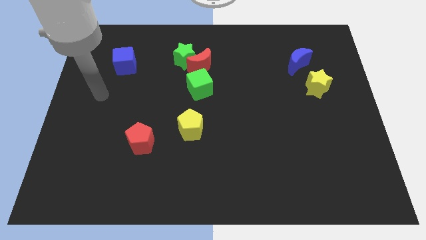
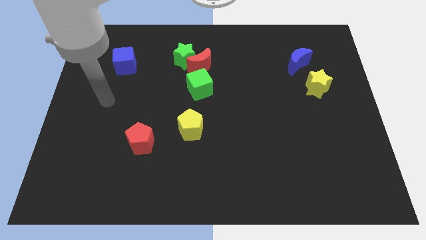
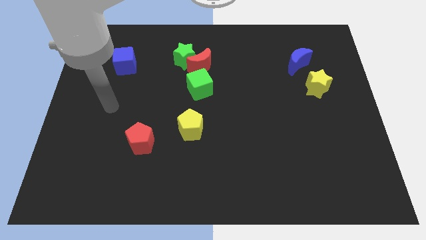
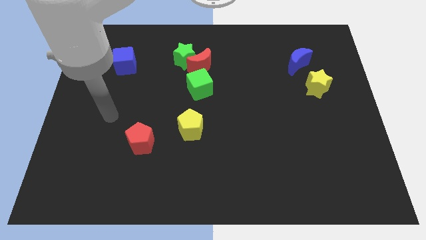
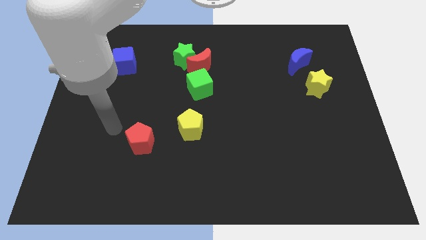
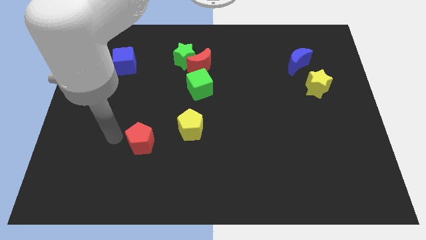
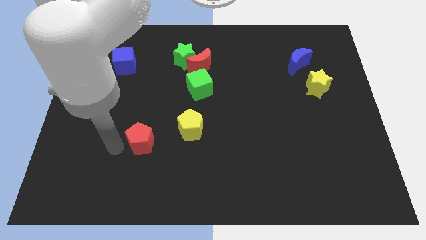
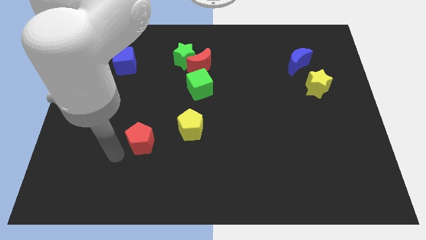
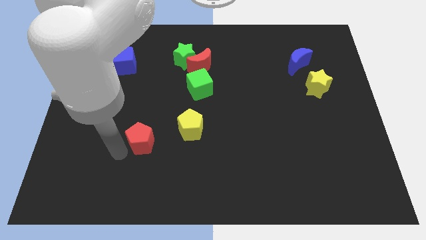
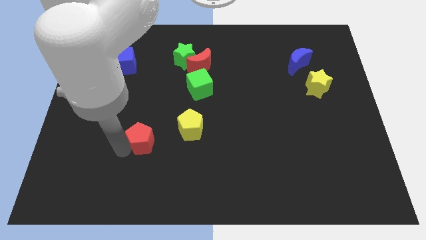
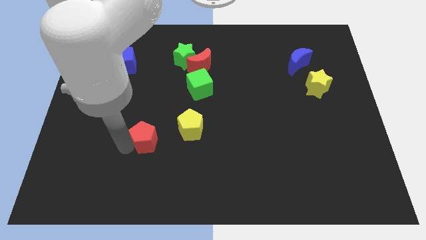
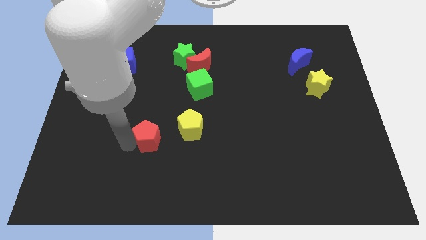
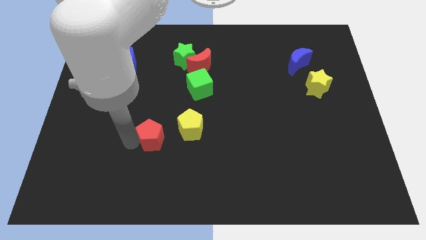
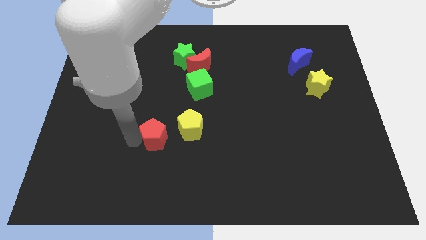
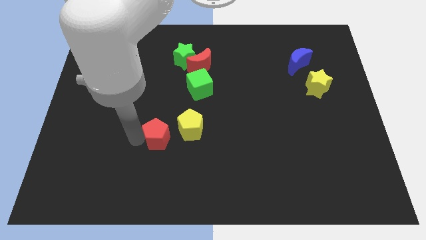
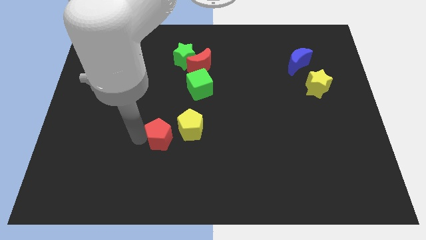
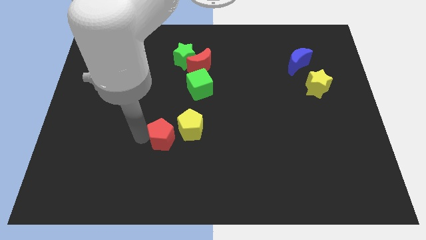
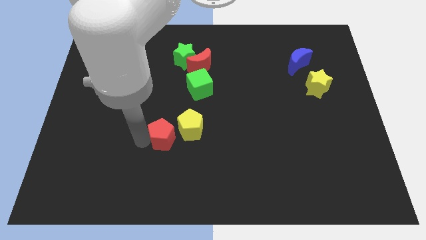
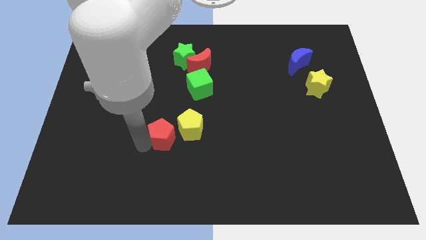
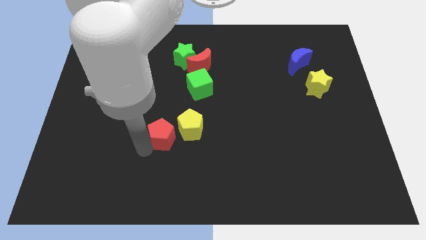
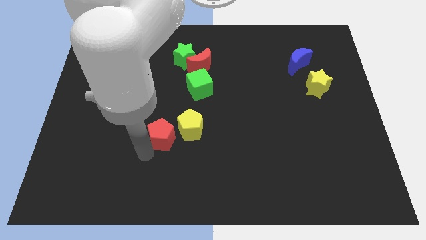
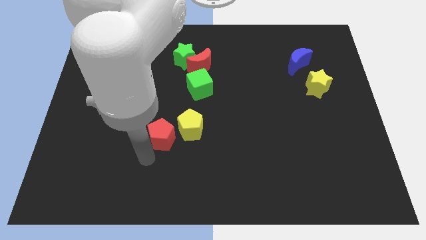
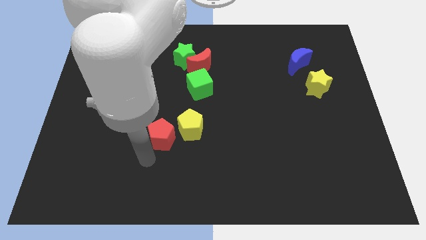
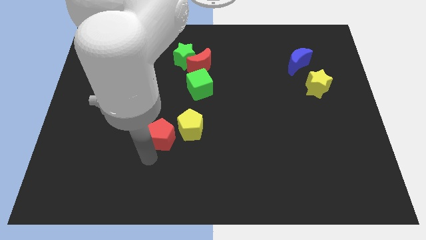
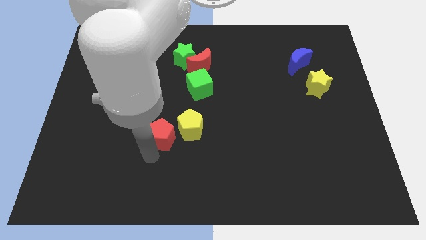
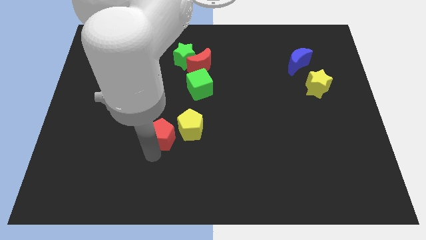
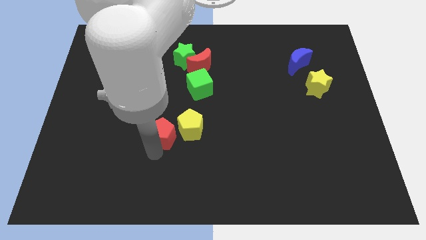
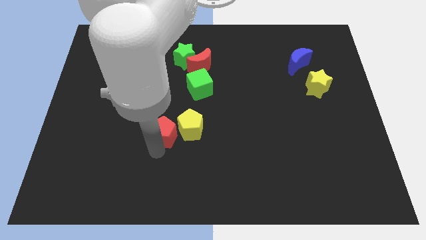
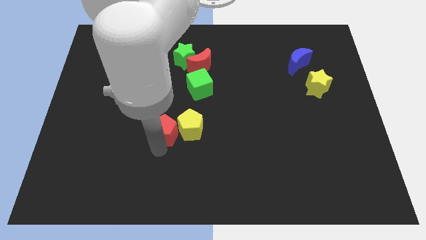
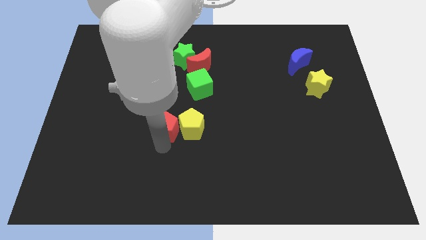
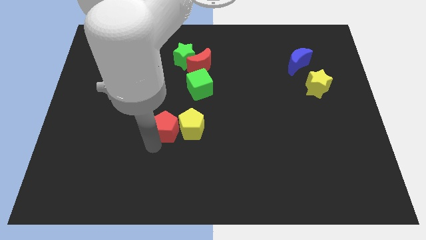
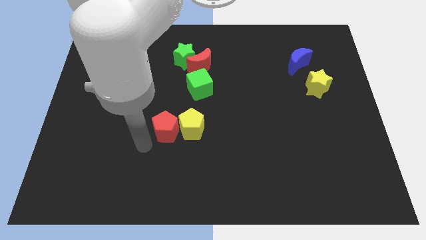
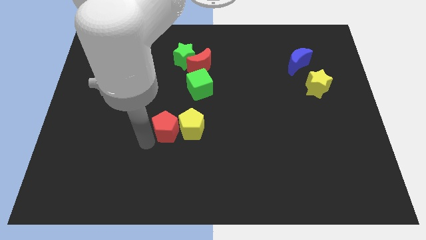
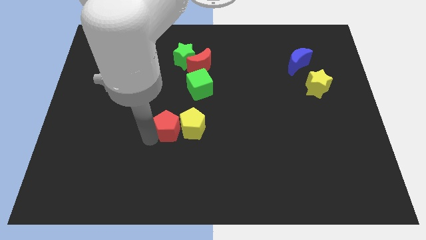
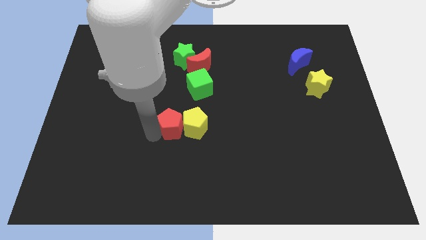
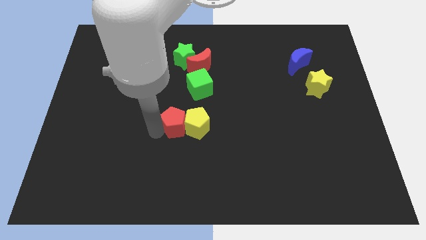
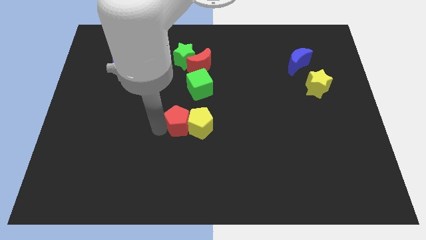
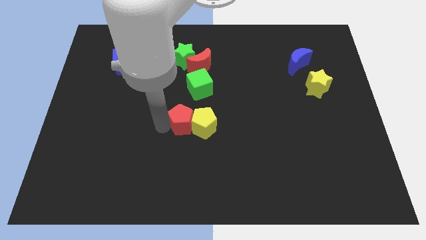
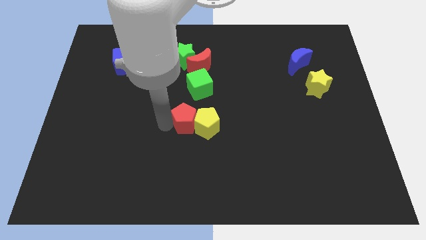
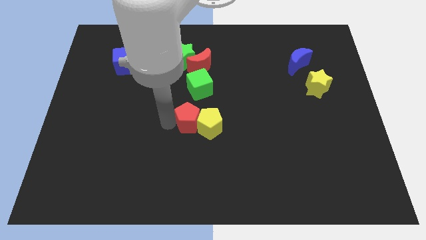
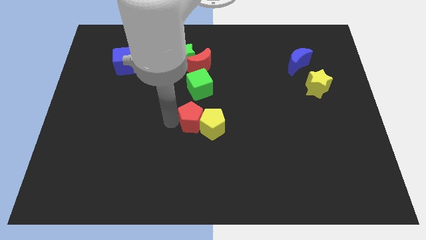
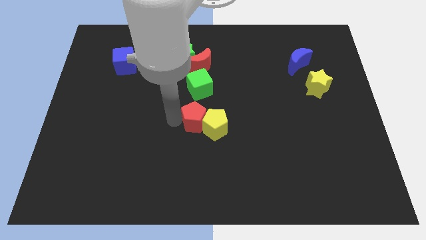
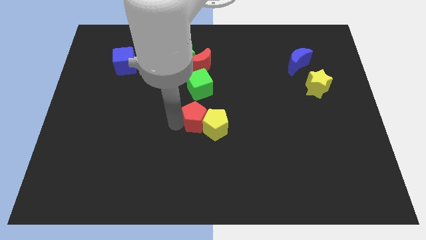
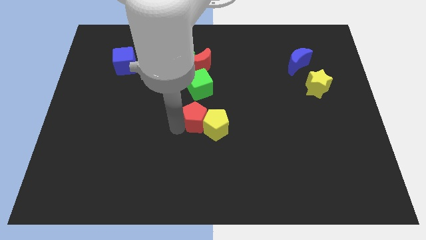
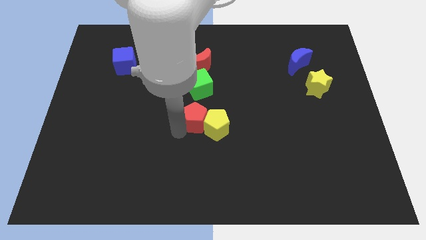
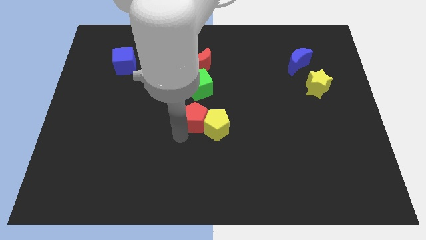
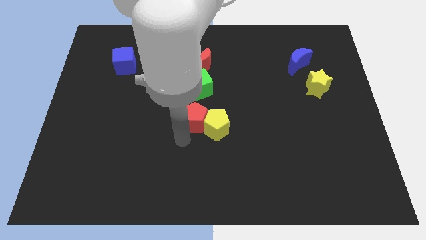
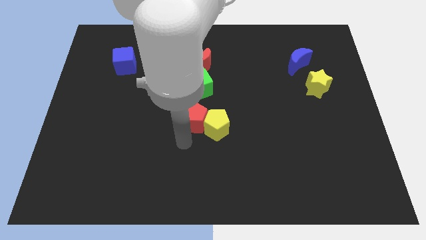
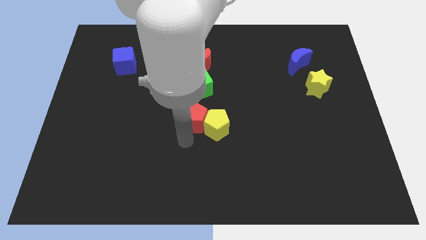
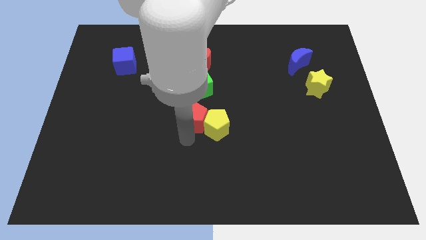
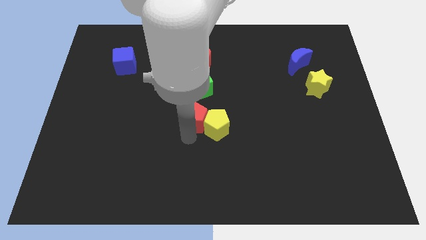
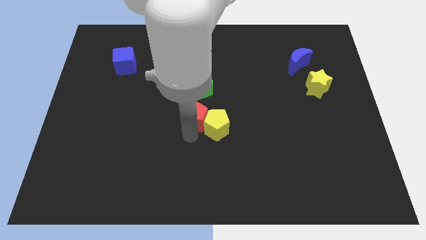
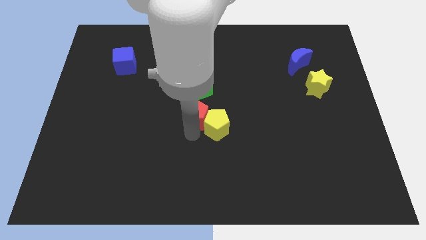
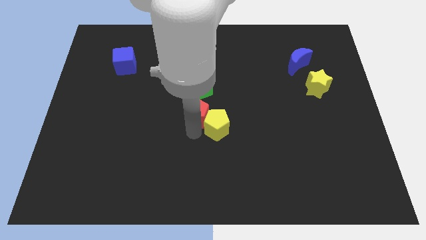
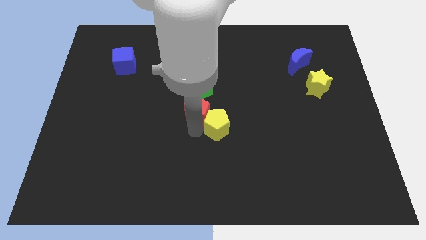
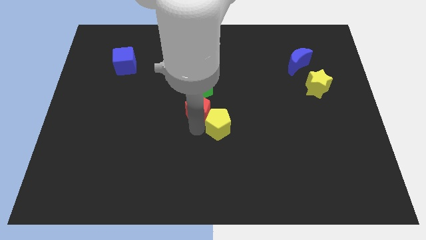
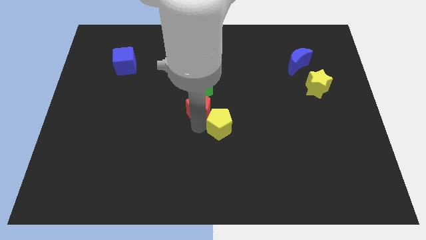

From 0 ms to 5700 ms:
move the red pentagon to the bottom right side of the green cube

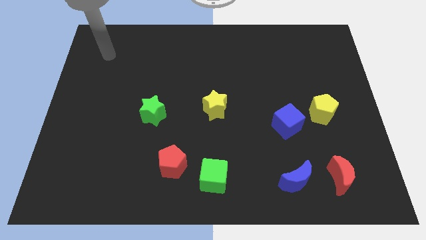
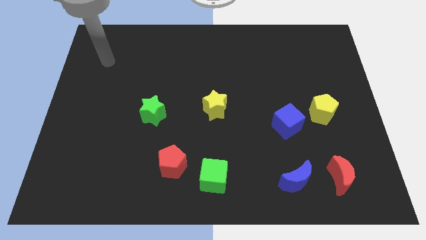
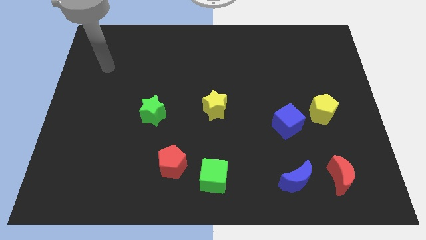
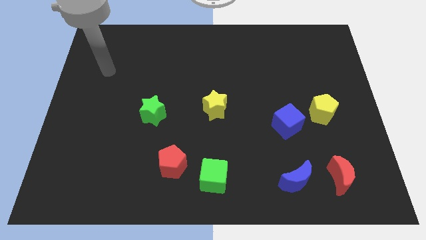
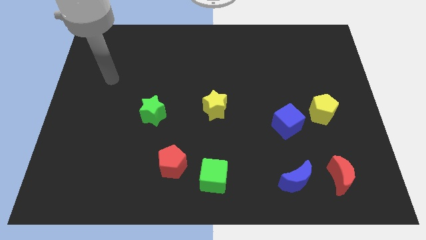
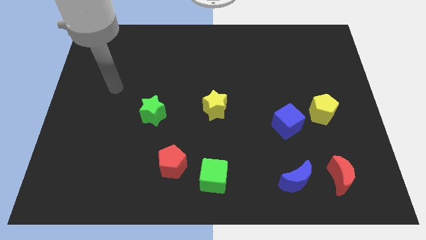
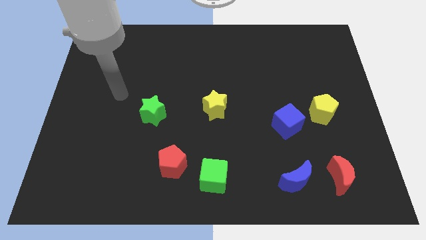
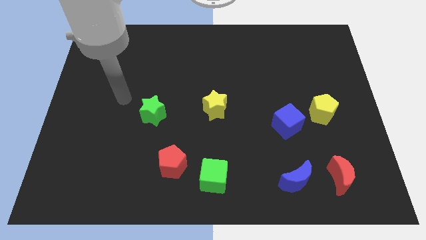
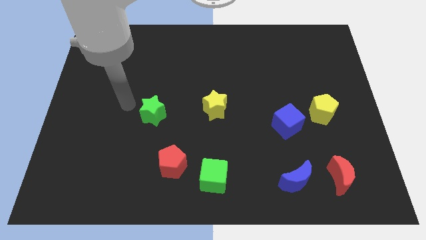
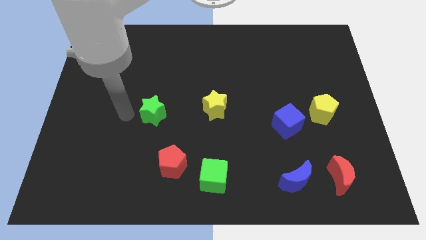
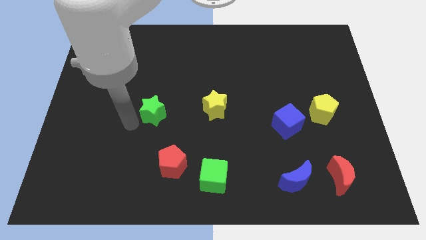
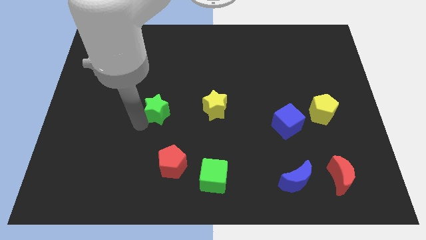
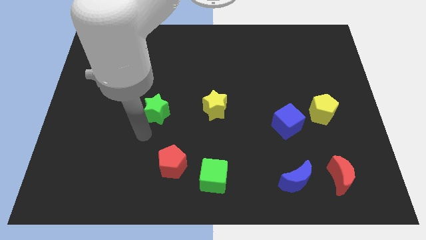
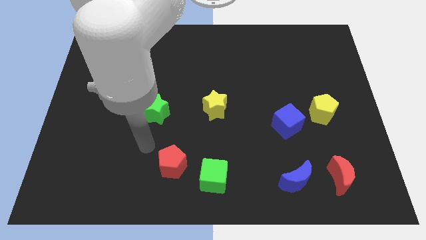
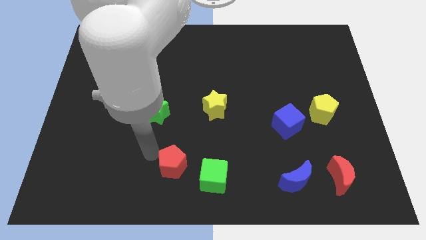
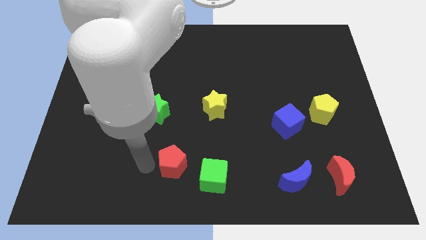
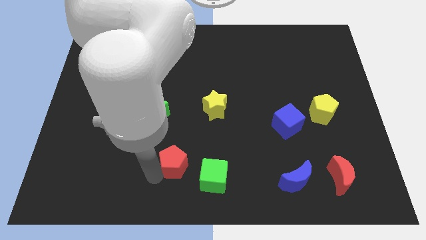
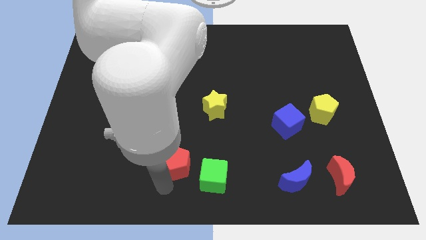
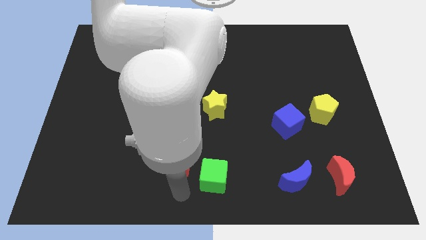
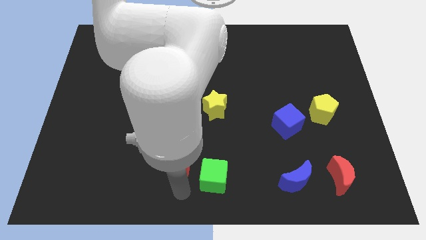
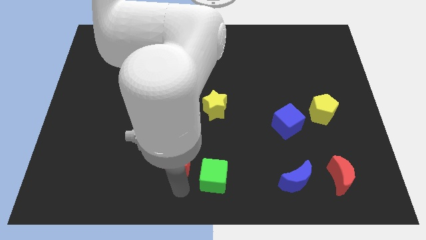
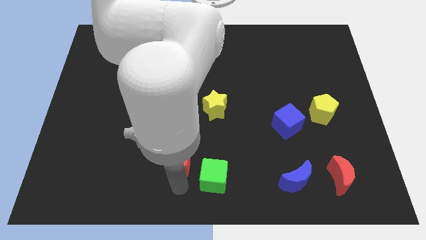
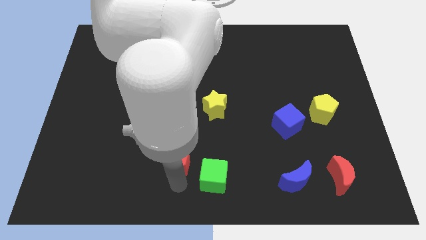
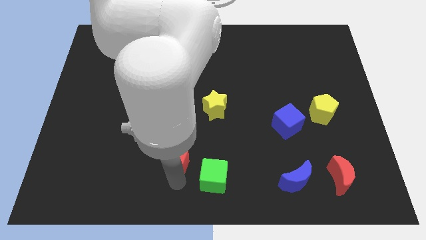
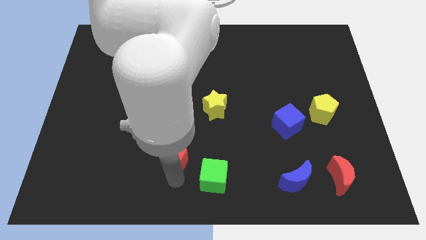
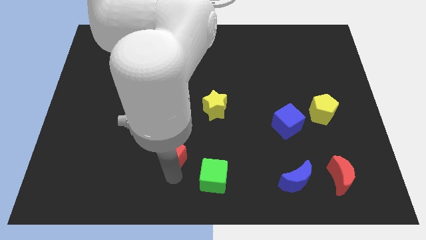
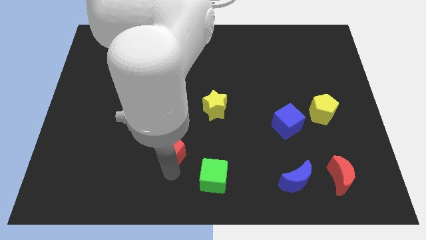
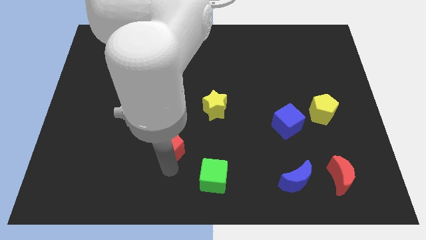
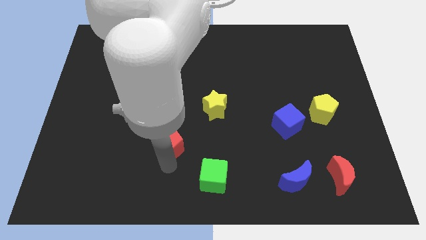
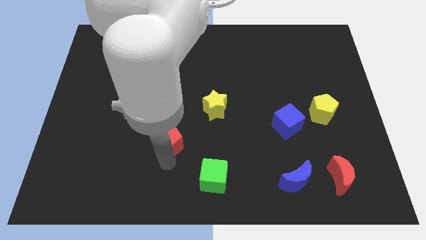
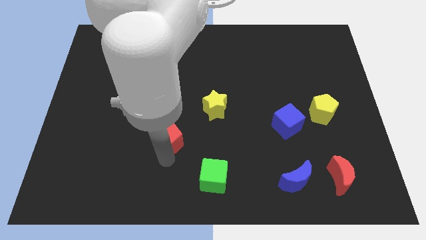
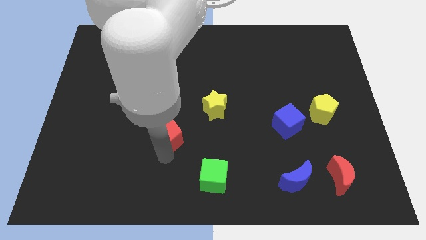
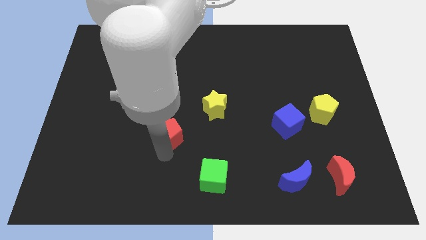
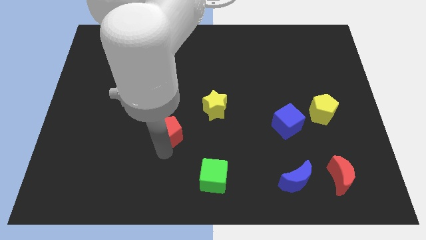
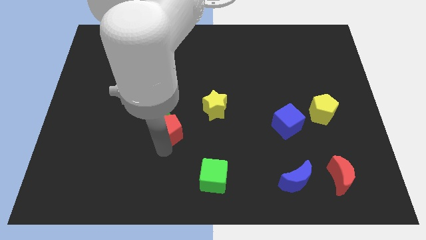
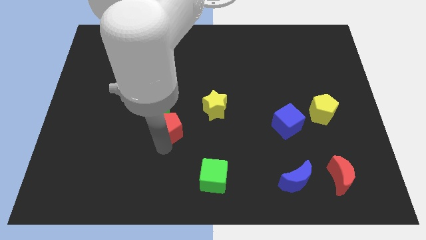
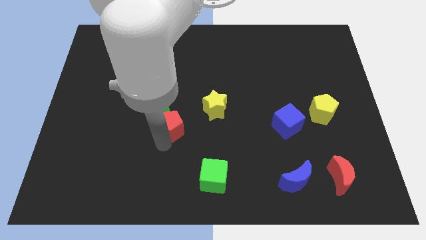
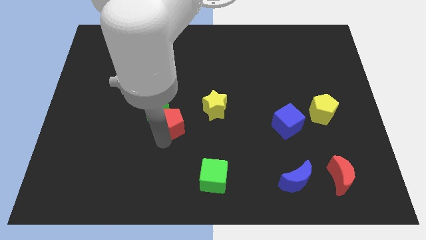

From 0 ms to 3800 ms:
put the red pentagon just left of the yellow star
